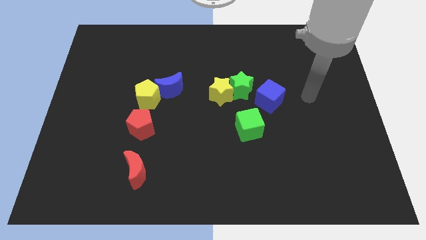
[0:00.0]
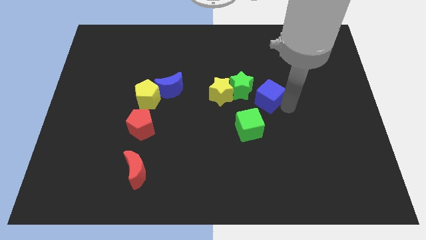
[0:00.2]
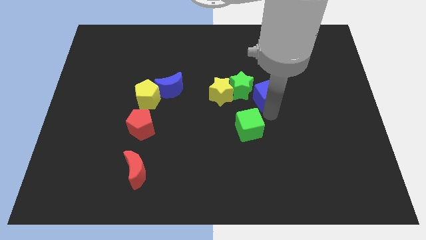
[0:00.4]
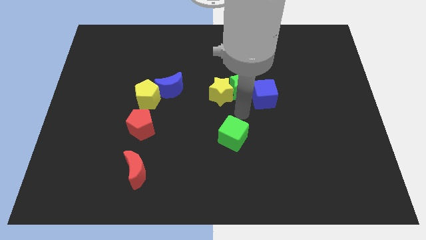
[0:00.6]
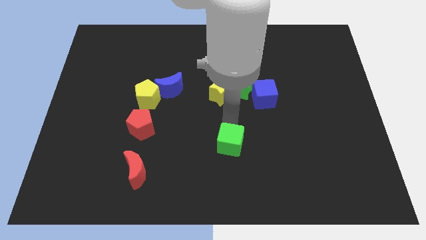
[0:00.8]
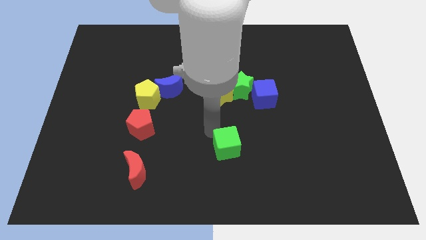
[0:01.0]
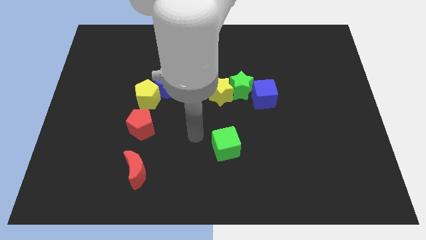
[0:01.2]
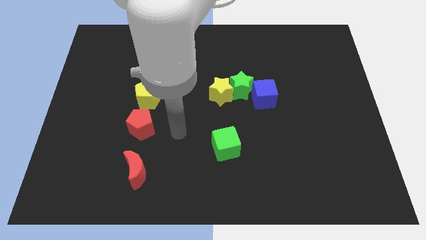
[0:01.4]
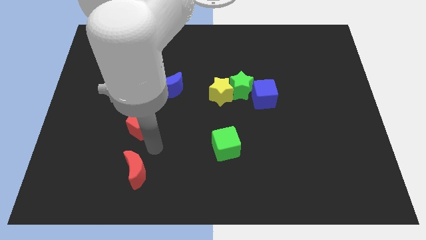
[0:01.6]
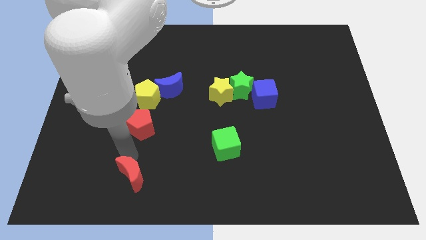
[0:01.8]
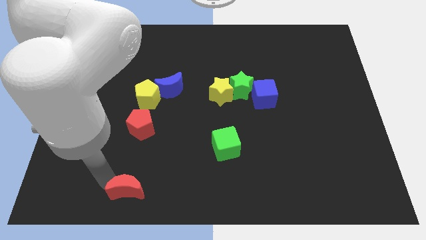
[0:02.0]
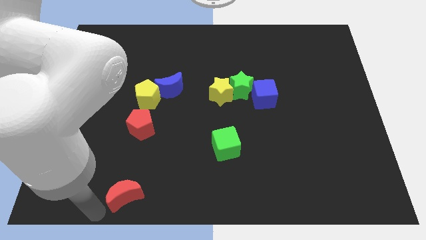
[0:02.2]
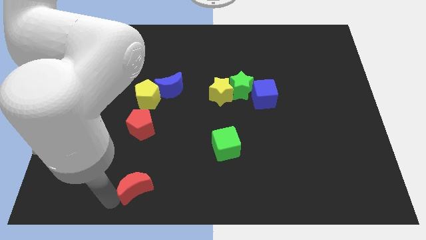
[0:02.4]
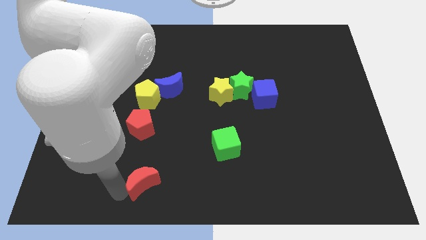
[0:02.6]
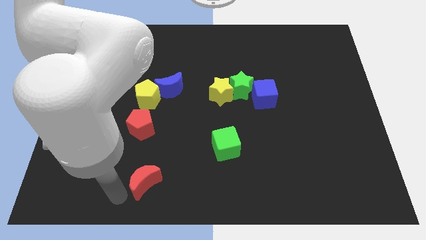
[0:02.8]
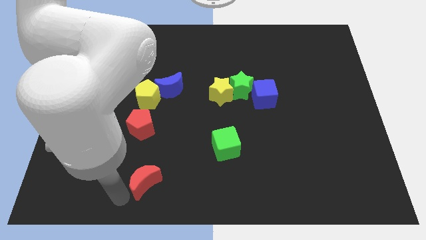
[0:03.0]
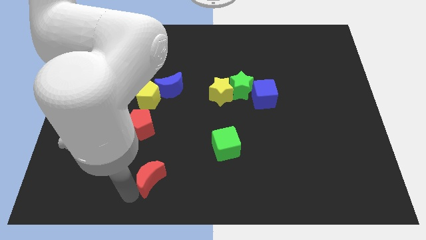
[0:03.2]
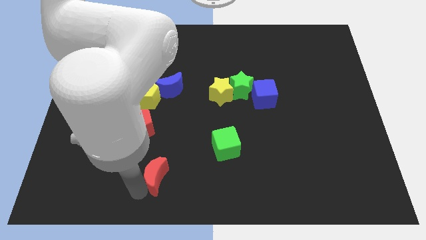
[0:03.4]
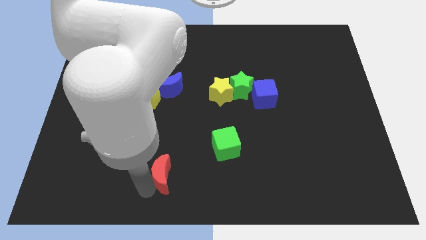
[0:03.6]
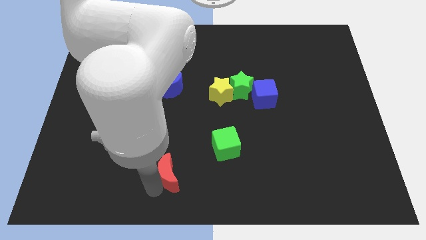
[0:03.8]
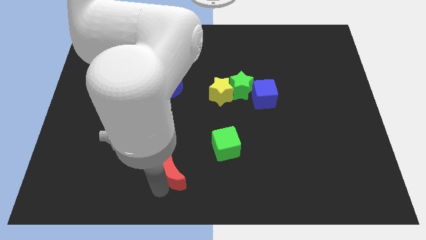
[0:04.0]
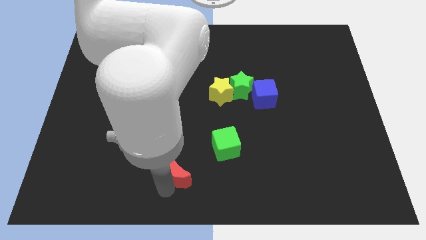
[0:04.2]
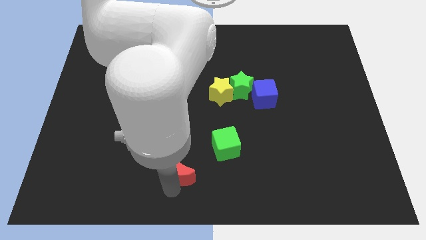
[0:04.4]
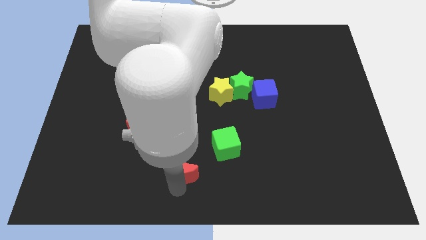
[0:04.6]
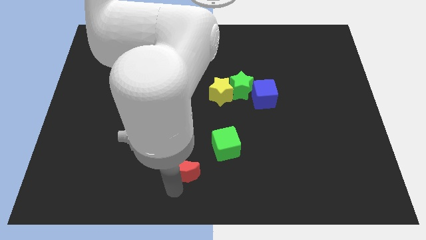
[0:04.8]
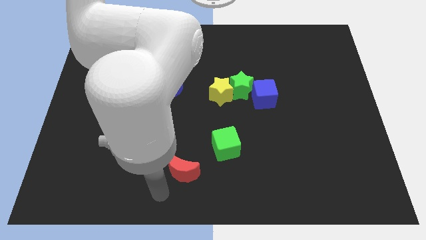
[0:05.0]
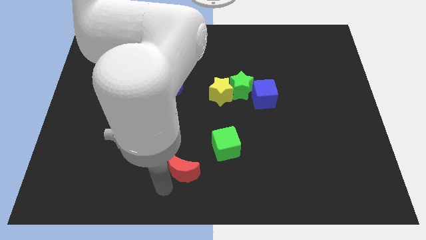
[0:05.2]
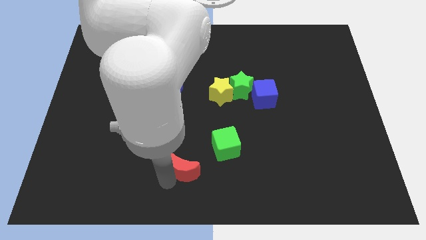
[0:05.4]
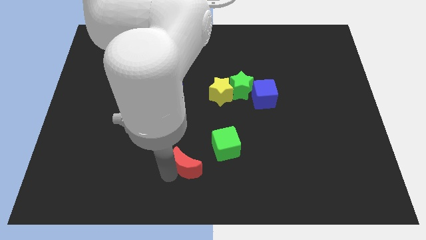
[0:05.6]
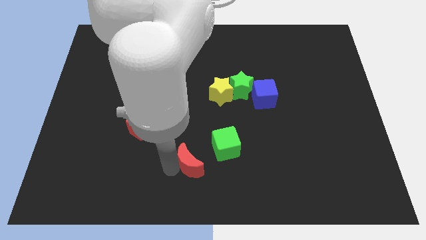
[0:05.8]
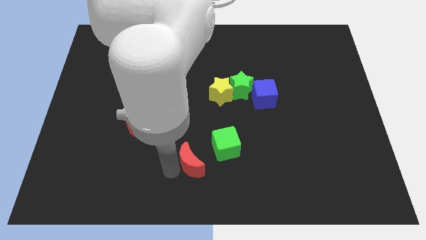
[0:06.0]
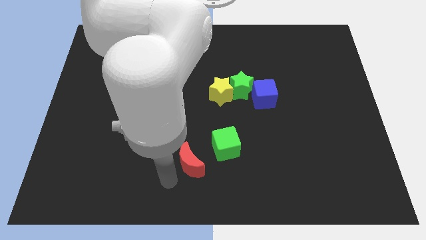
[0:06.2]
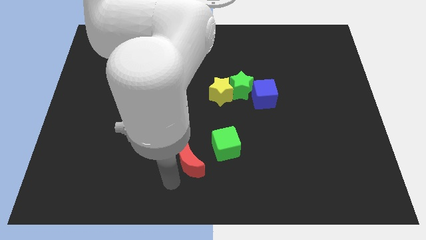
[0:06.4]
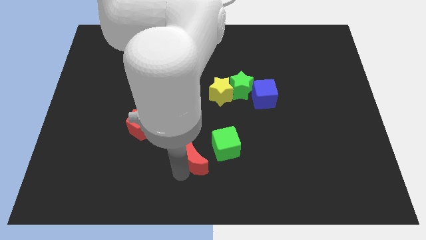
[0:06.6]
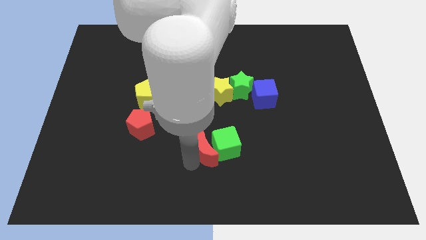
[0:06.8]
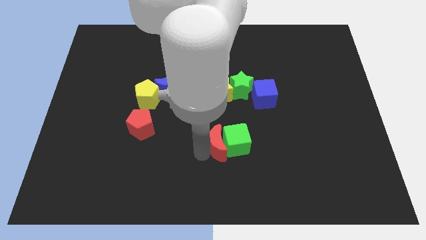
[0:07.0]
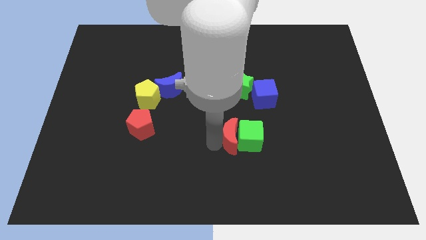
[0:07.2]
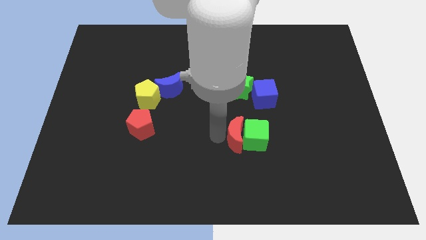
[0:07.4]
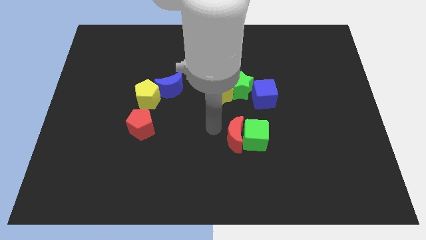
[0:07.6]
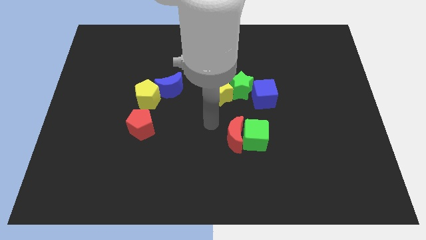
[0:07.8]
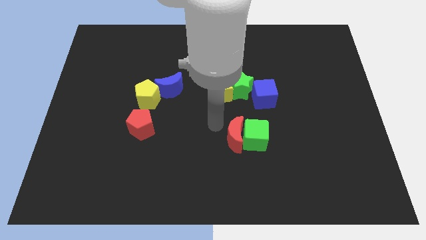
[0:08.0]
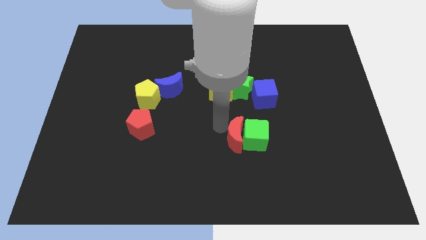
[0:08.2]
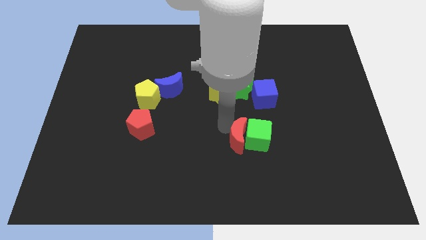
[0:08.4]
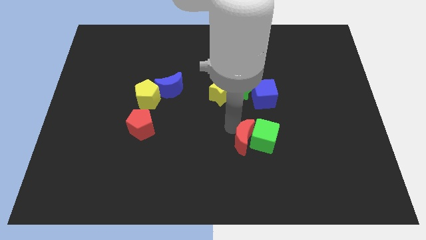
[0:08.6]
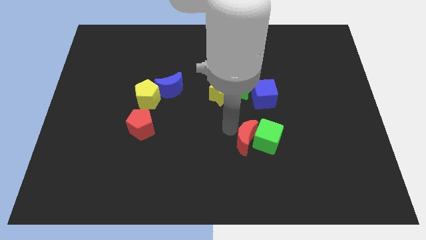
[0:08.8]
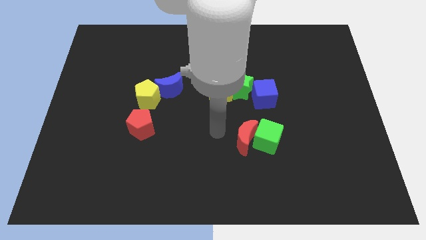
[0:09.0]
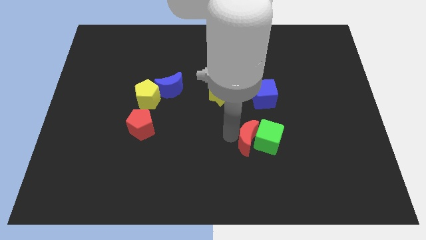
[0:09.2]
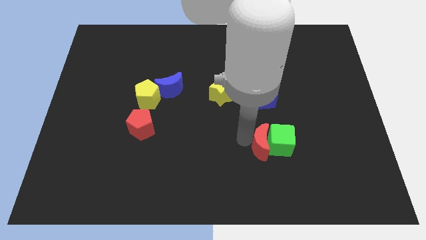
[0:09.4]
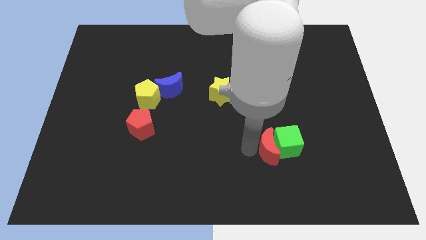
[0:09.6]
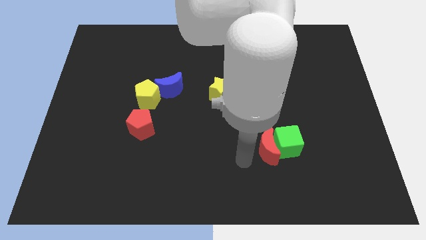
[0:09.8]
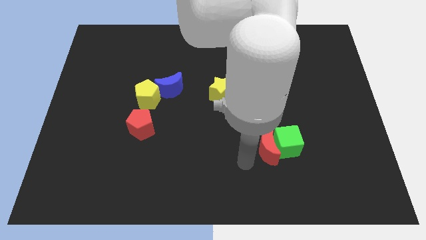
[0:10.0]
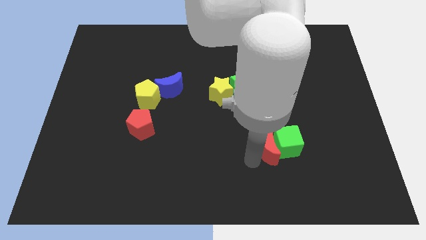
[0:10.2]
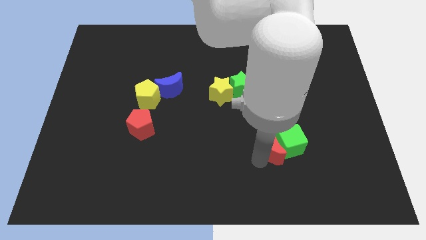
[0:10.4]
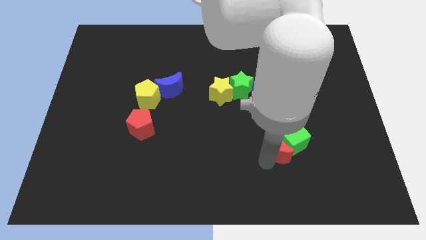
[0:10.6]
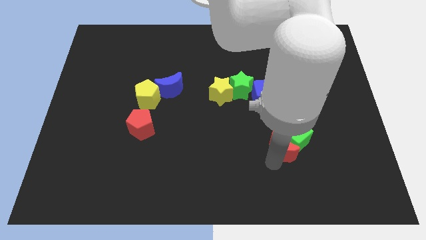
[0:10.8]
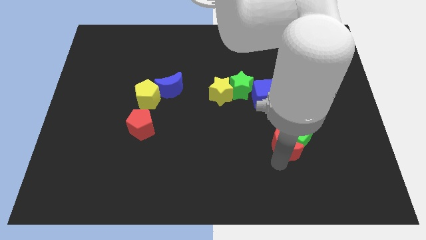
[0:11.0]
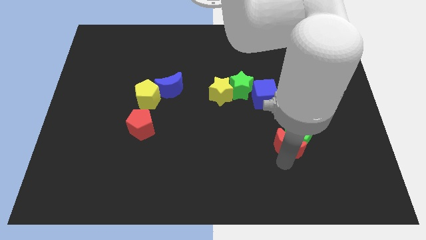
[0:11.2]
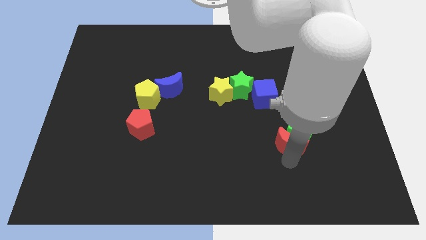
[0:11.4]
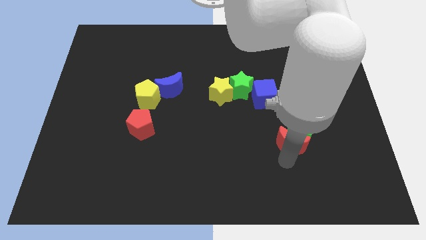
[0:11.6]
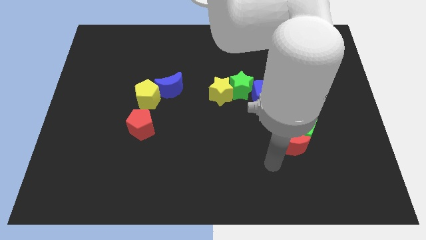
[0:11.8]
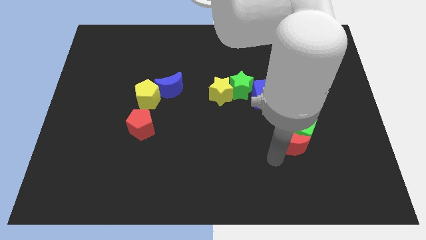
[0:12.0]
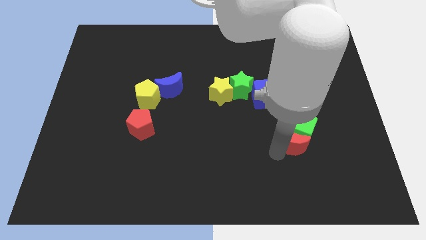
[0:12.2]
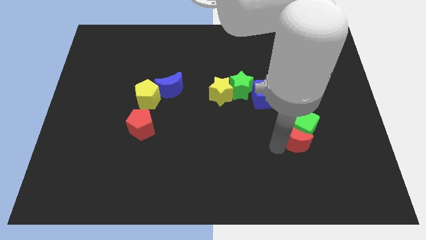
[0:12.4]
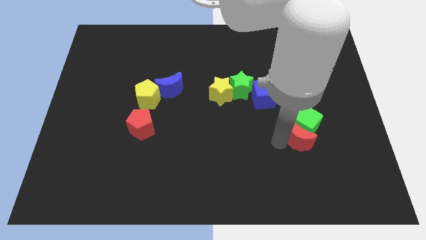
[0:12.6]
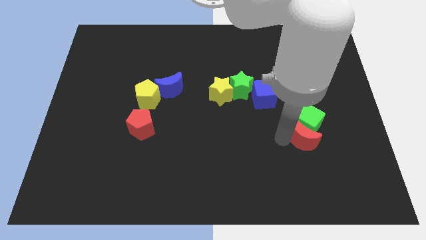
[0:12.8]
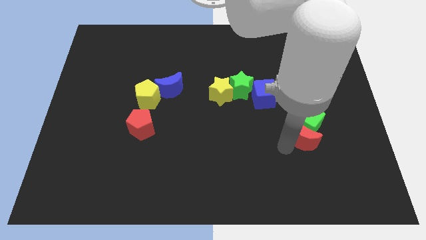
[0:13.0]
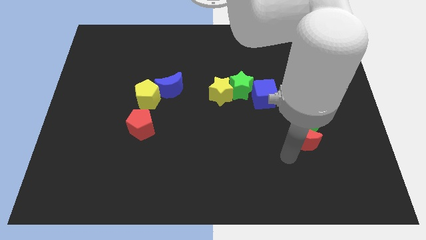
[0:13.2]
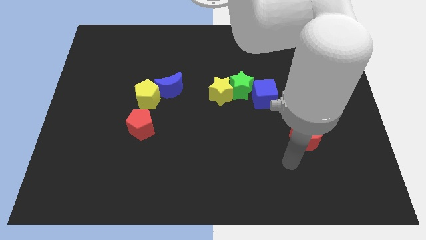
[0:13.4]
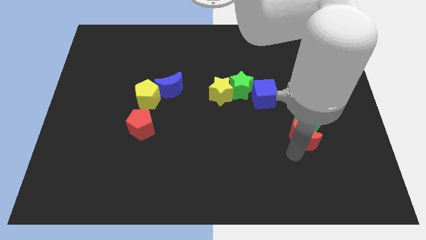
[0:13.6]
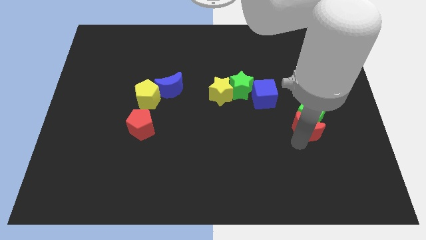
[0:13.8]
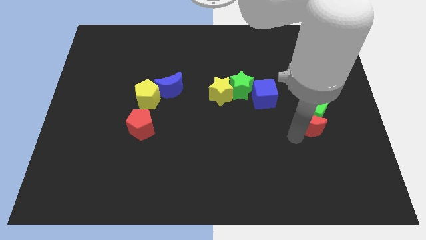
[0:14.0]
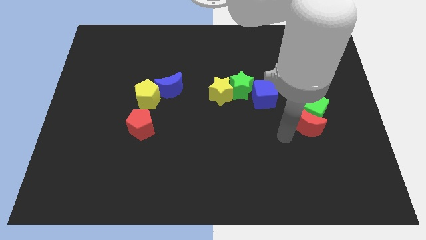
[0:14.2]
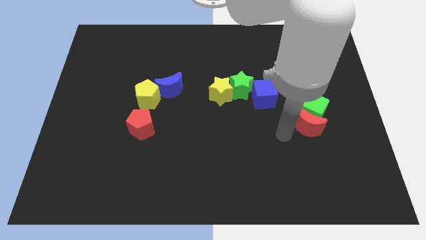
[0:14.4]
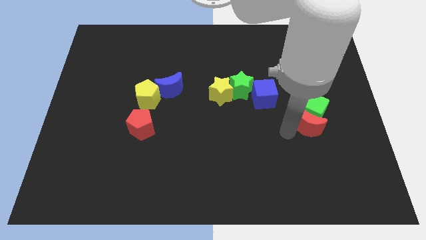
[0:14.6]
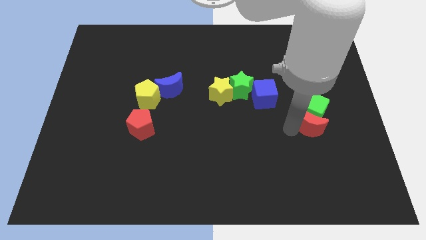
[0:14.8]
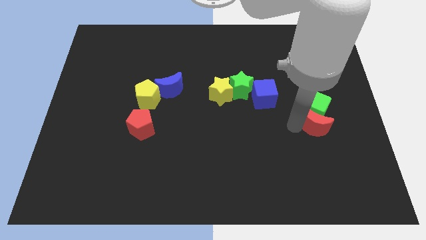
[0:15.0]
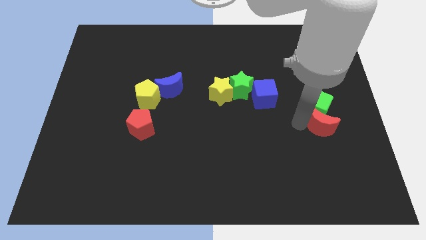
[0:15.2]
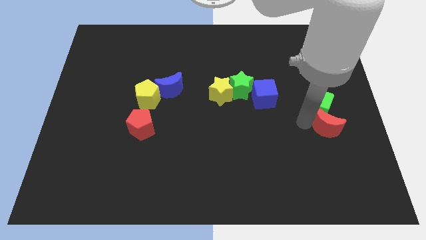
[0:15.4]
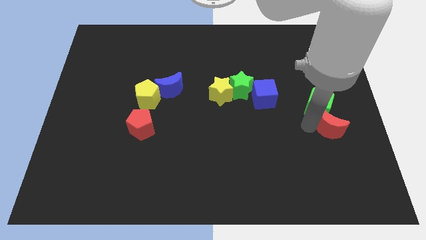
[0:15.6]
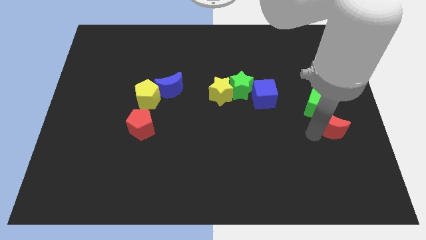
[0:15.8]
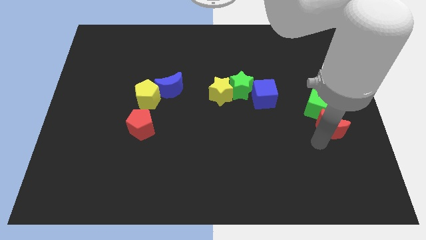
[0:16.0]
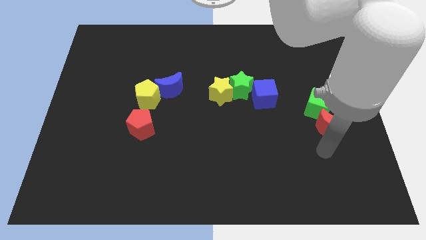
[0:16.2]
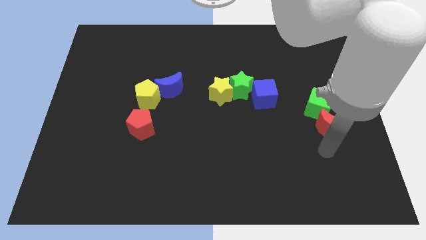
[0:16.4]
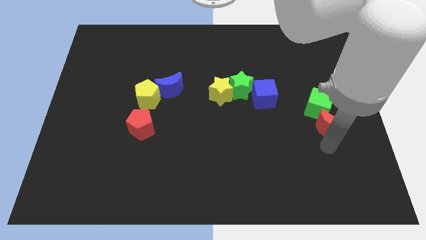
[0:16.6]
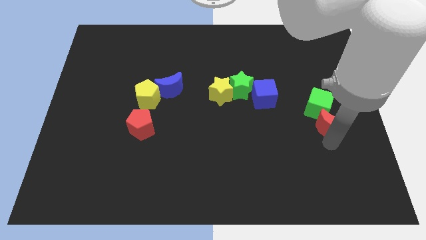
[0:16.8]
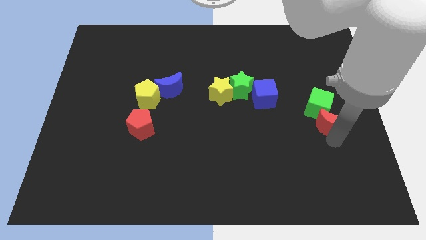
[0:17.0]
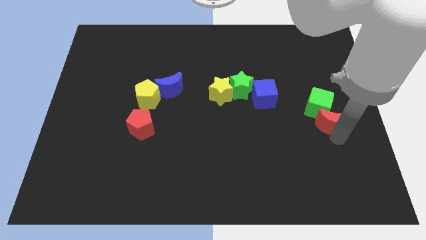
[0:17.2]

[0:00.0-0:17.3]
move the red moon to the right side of the board
